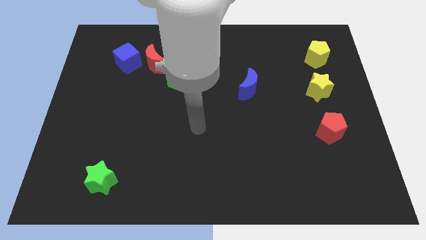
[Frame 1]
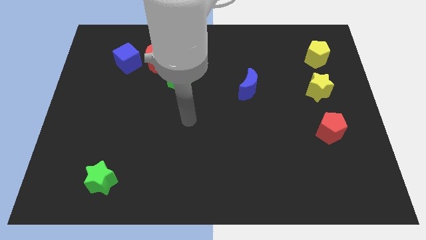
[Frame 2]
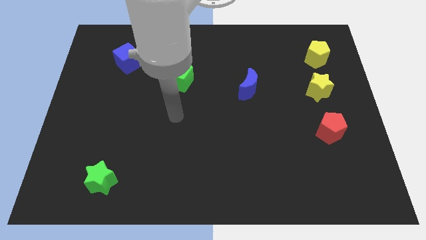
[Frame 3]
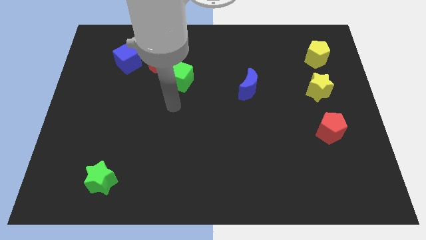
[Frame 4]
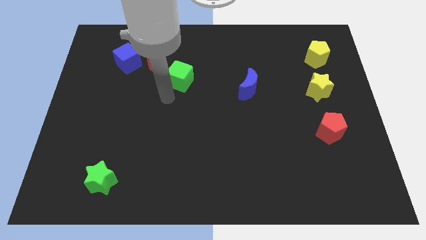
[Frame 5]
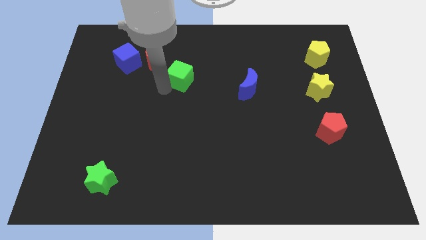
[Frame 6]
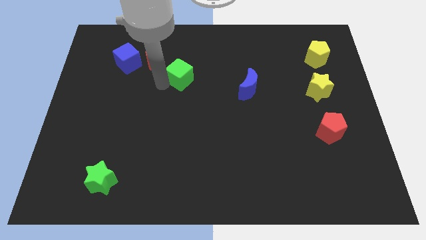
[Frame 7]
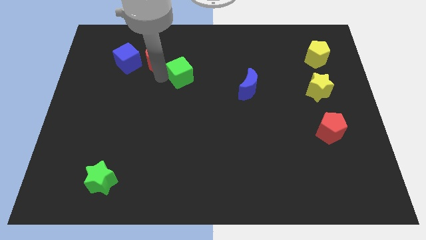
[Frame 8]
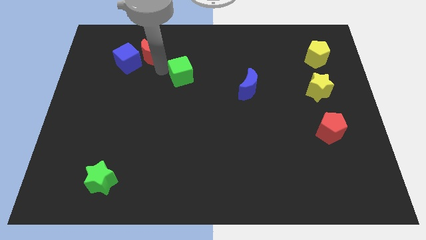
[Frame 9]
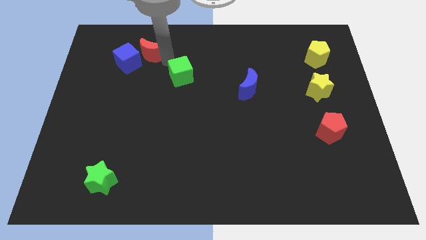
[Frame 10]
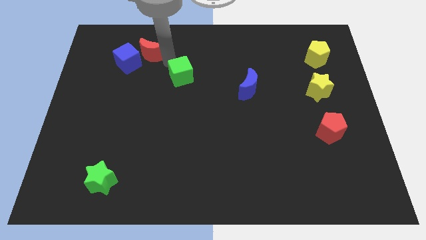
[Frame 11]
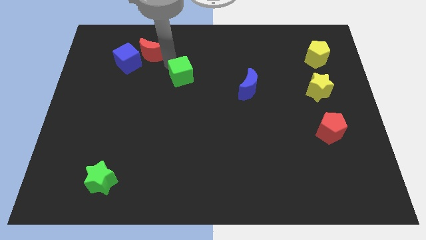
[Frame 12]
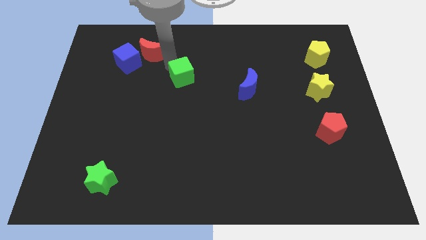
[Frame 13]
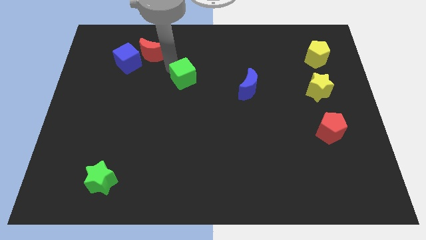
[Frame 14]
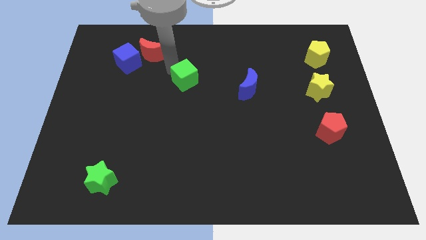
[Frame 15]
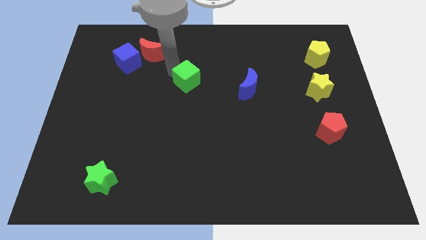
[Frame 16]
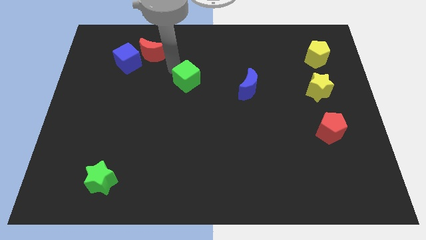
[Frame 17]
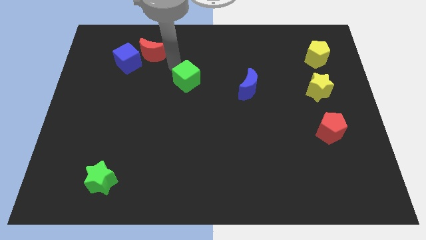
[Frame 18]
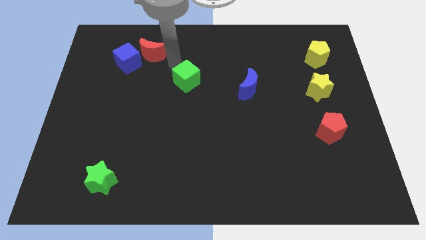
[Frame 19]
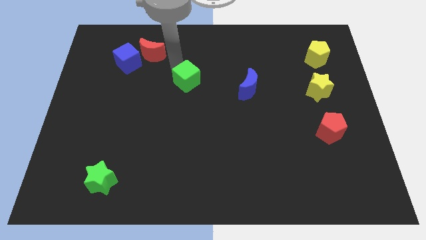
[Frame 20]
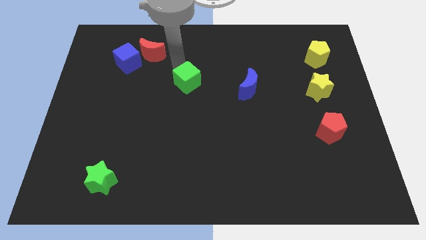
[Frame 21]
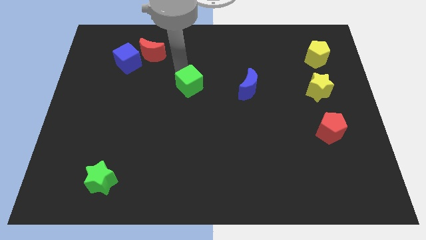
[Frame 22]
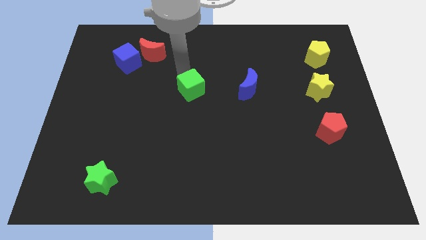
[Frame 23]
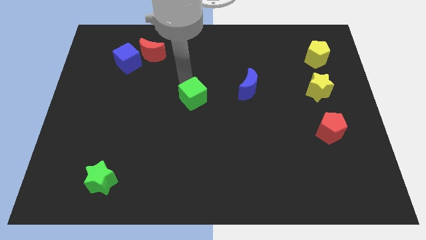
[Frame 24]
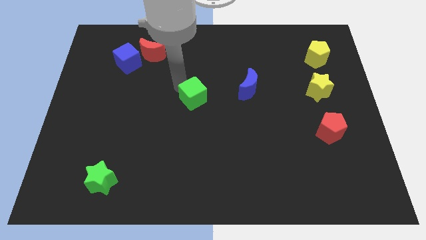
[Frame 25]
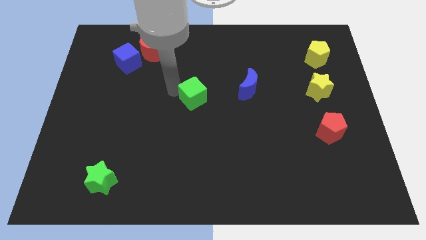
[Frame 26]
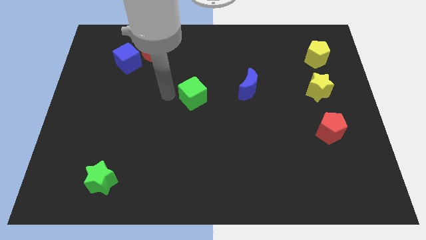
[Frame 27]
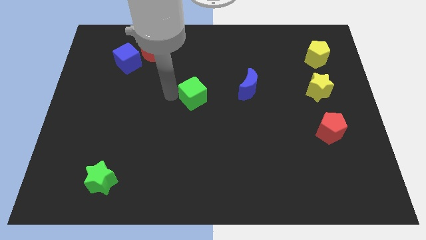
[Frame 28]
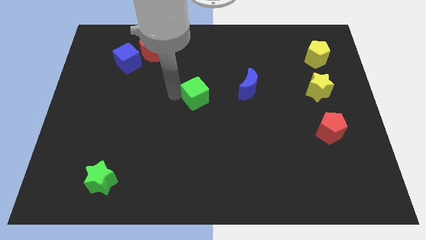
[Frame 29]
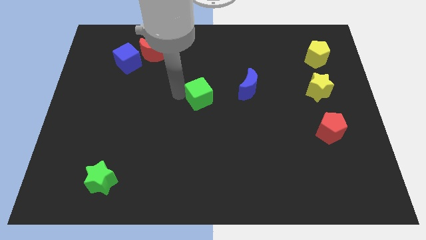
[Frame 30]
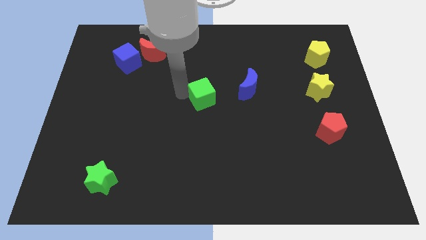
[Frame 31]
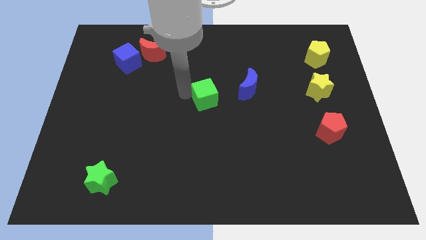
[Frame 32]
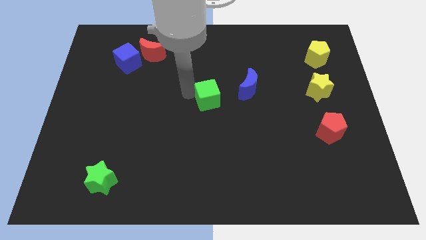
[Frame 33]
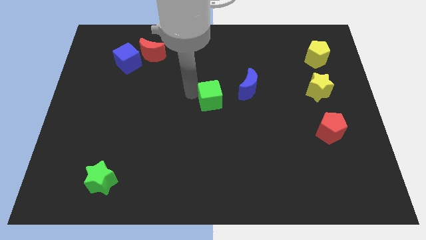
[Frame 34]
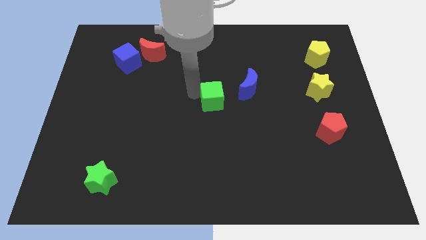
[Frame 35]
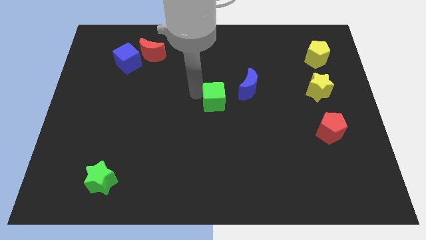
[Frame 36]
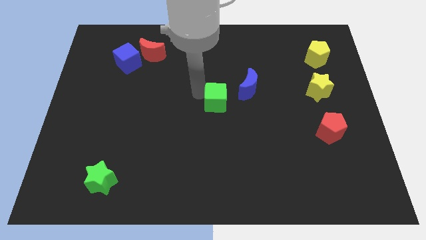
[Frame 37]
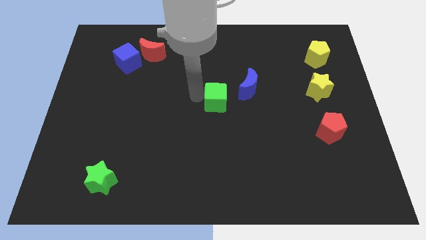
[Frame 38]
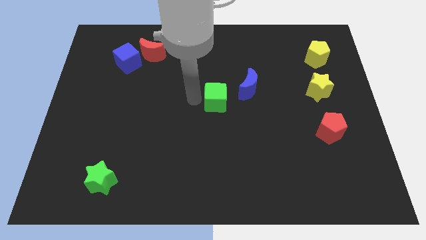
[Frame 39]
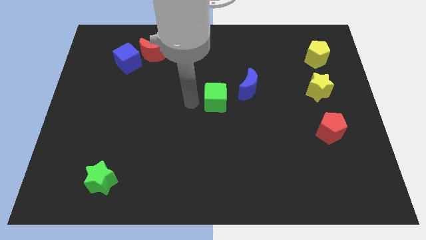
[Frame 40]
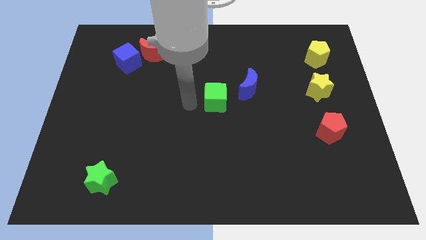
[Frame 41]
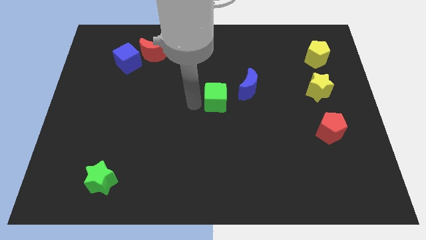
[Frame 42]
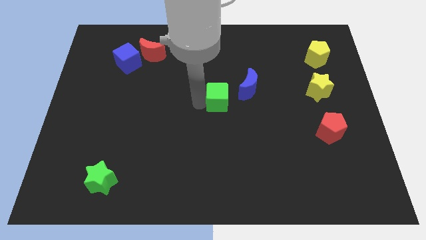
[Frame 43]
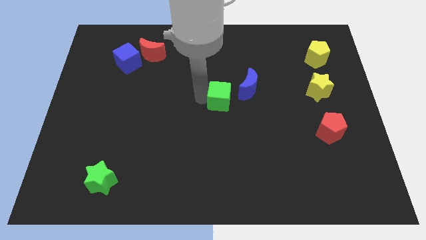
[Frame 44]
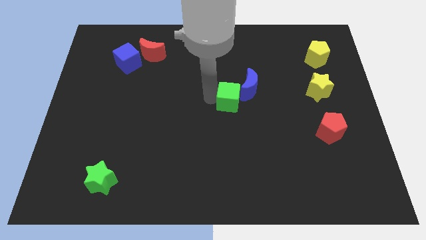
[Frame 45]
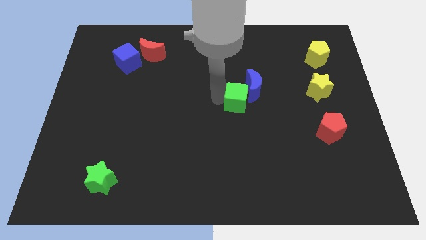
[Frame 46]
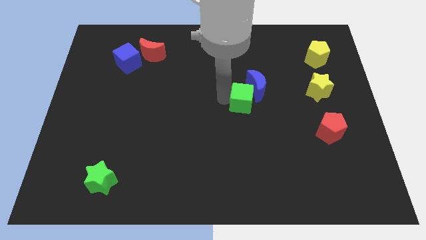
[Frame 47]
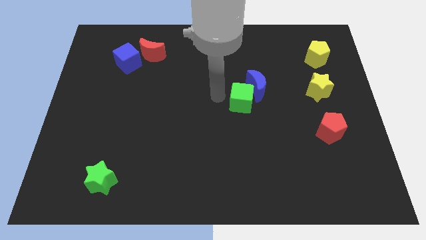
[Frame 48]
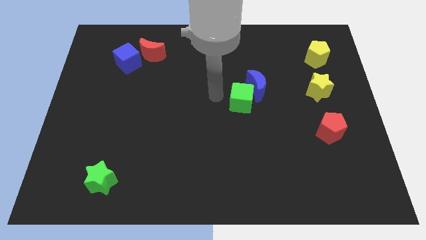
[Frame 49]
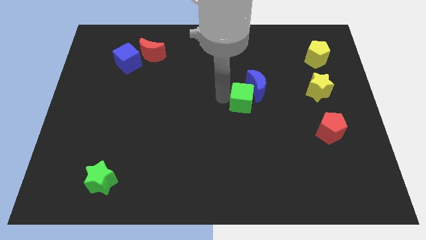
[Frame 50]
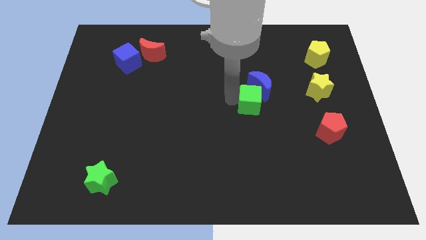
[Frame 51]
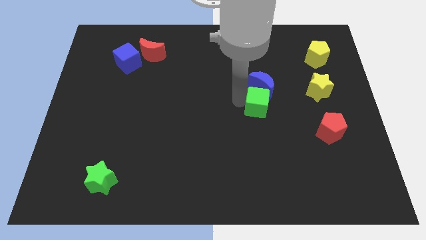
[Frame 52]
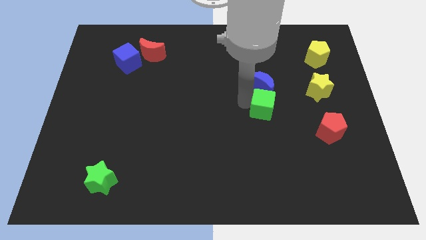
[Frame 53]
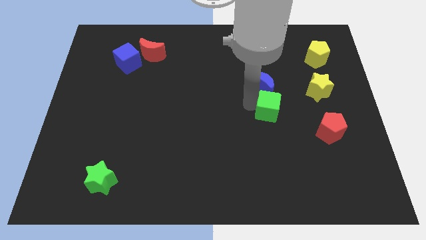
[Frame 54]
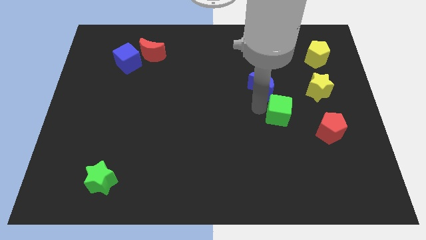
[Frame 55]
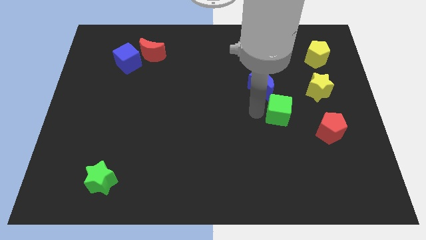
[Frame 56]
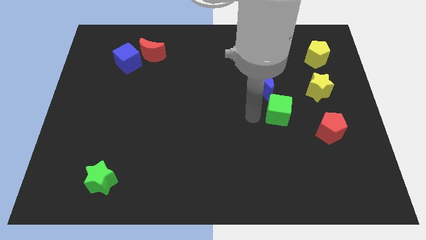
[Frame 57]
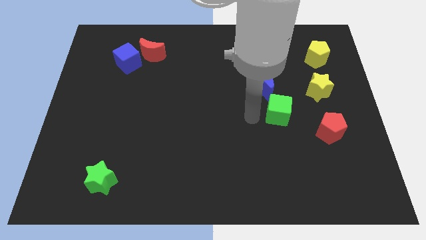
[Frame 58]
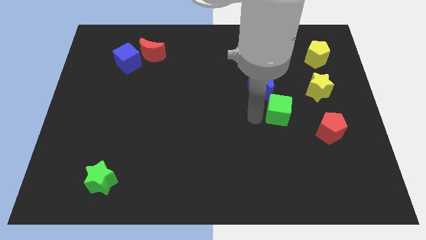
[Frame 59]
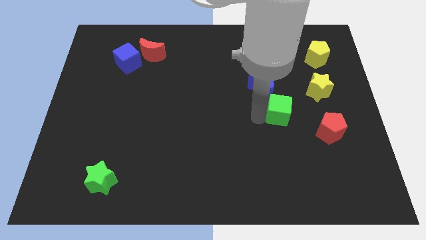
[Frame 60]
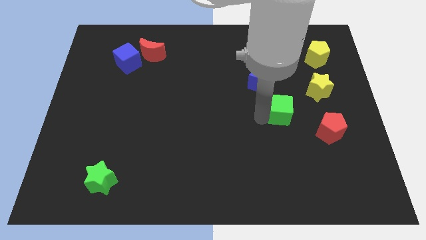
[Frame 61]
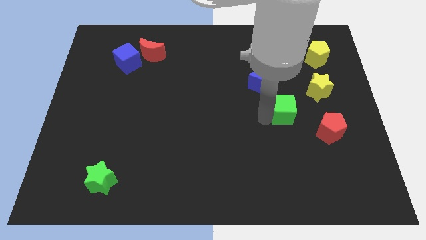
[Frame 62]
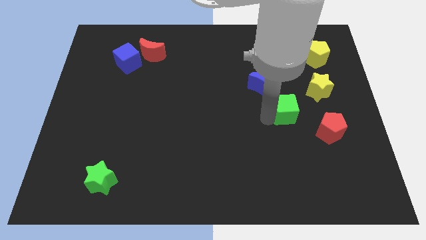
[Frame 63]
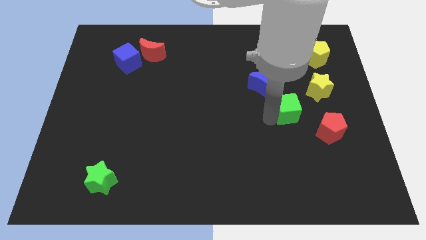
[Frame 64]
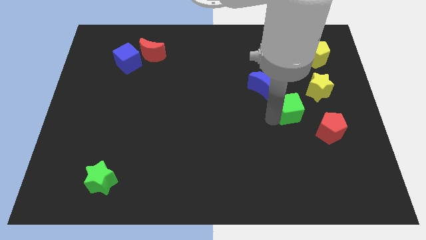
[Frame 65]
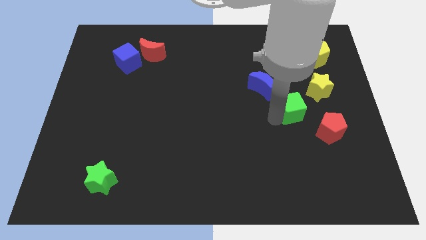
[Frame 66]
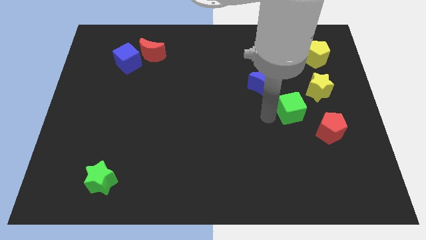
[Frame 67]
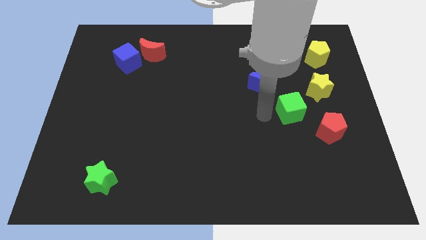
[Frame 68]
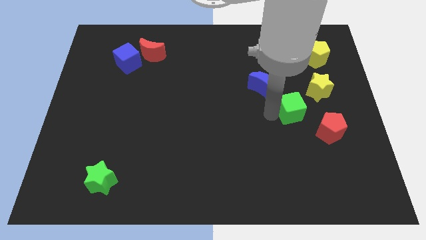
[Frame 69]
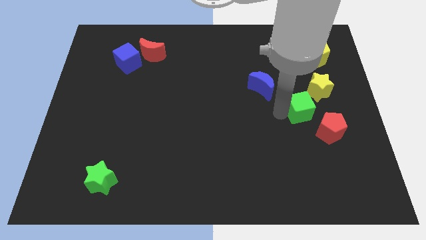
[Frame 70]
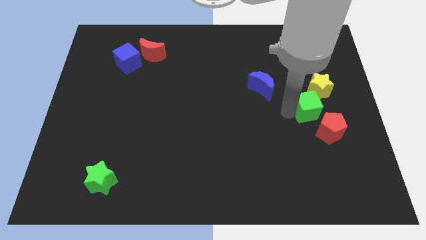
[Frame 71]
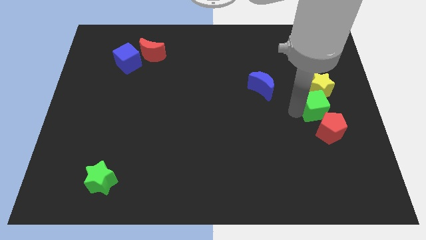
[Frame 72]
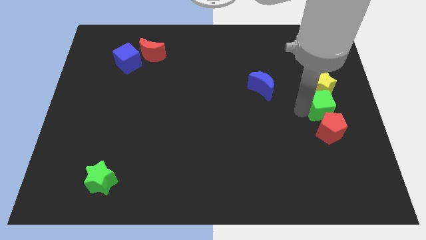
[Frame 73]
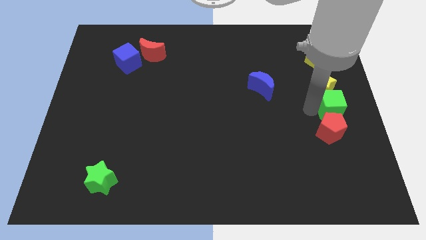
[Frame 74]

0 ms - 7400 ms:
push the green cube to the right side

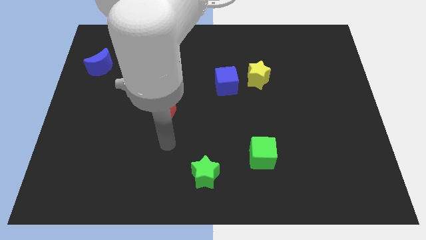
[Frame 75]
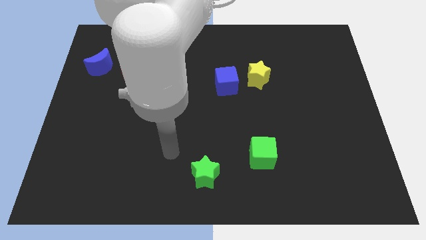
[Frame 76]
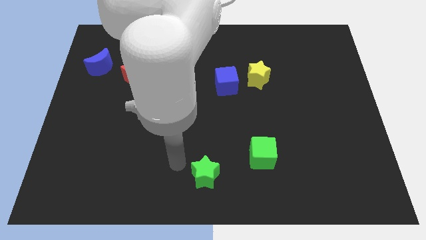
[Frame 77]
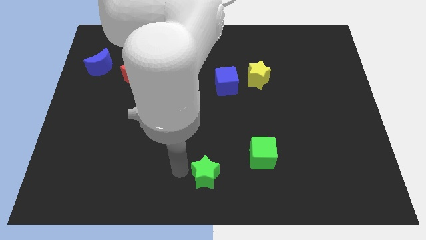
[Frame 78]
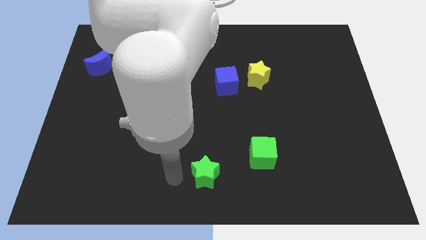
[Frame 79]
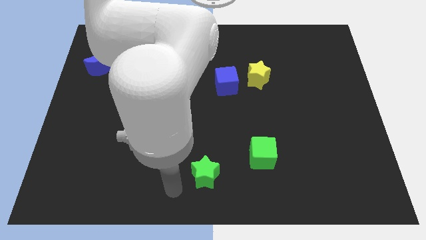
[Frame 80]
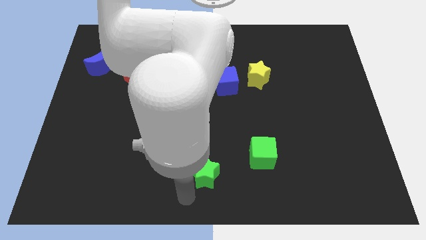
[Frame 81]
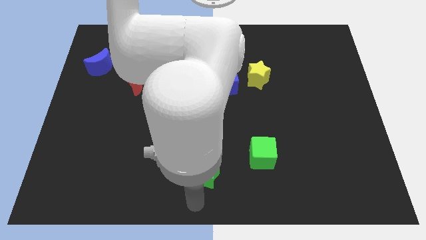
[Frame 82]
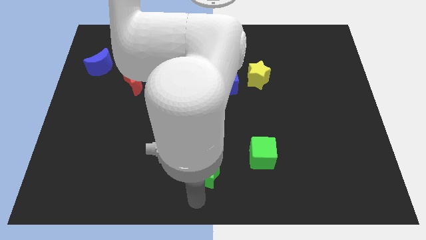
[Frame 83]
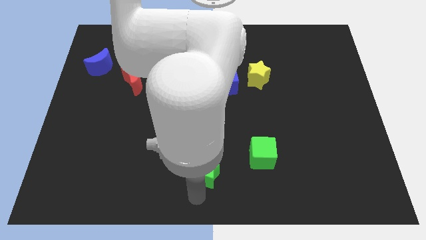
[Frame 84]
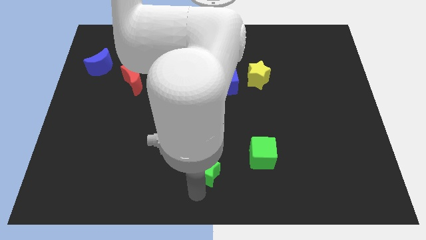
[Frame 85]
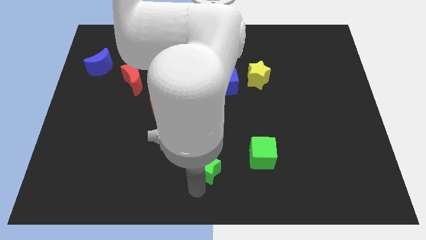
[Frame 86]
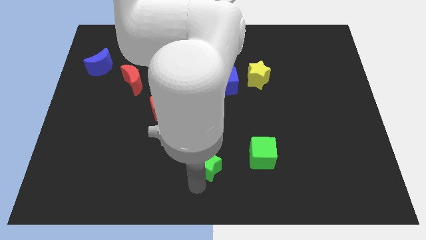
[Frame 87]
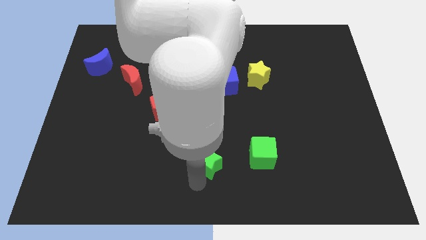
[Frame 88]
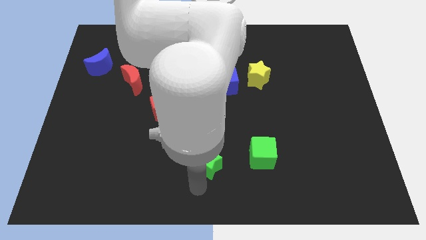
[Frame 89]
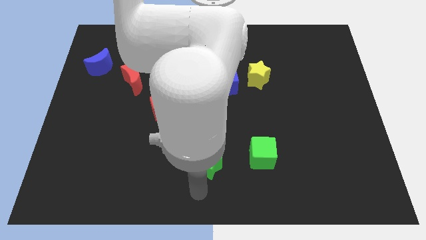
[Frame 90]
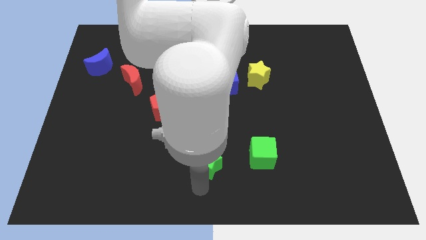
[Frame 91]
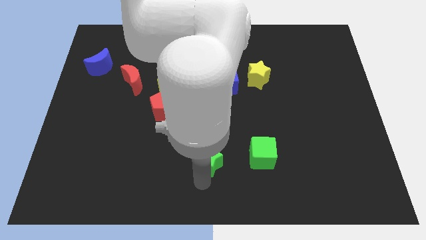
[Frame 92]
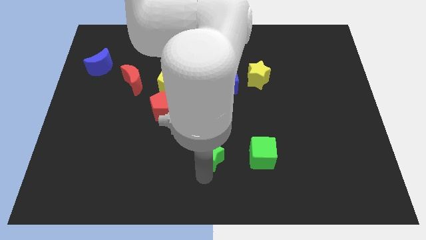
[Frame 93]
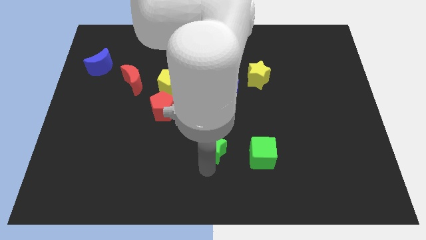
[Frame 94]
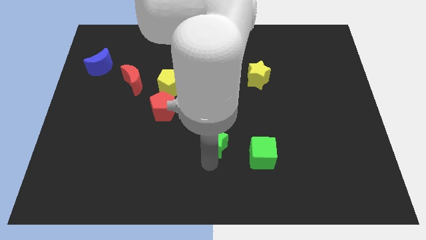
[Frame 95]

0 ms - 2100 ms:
push the green star to the middle of the board
